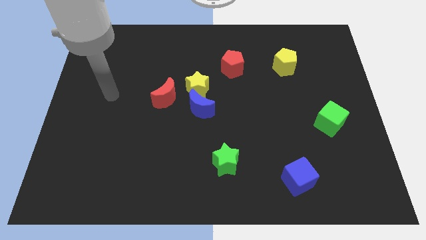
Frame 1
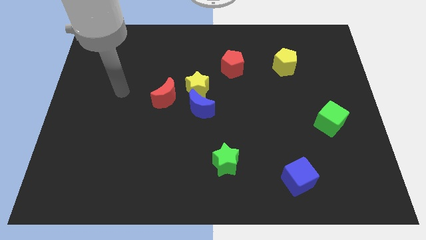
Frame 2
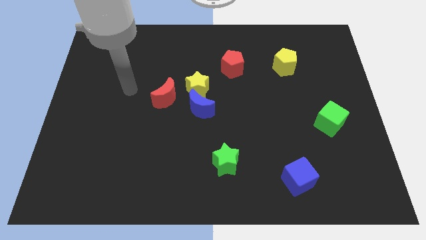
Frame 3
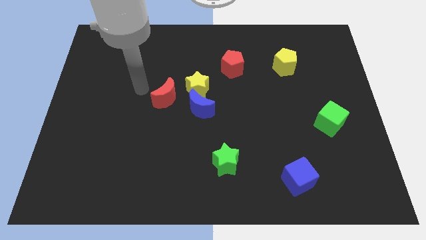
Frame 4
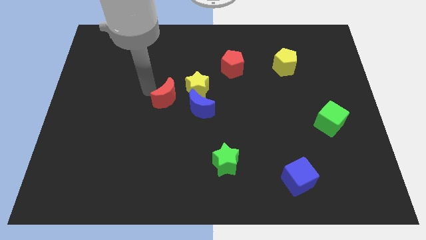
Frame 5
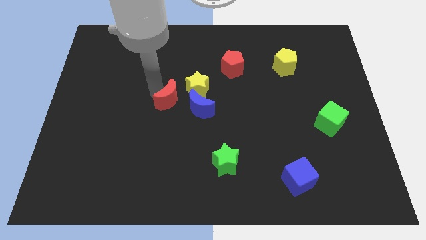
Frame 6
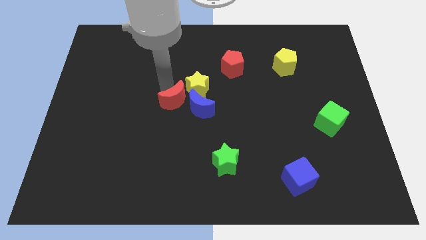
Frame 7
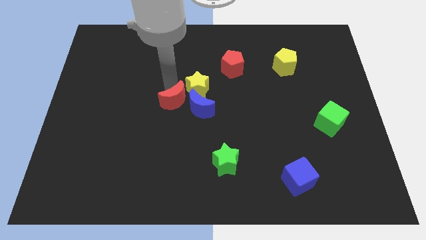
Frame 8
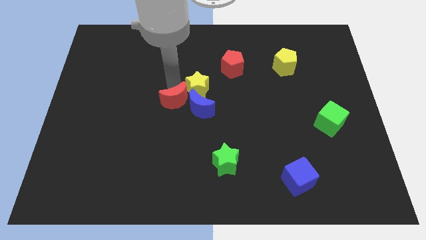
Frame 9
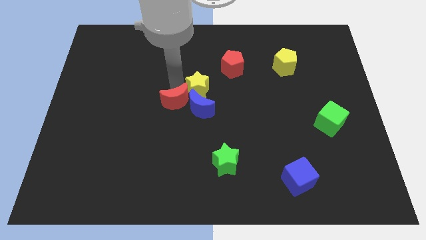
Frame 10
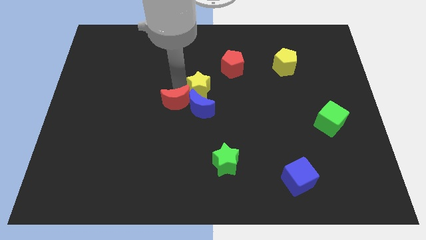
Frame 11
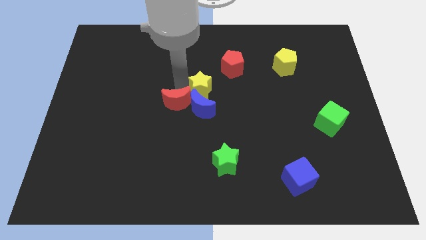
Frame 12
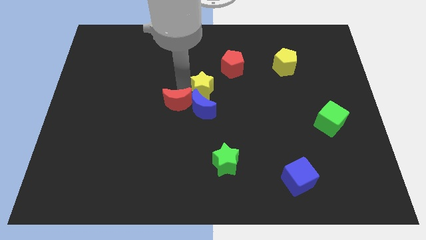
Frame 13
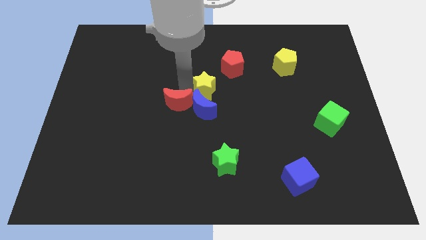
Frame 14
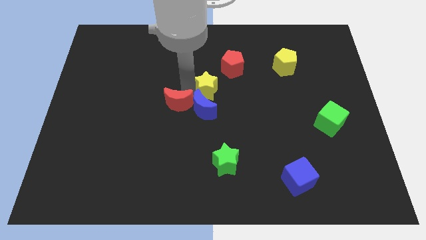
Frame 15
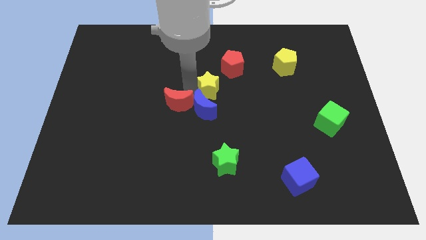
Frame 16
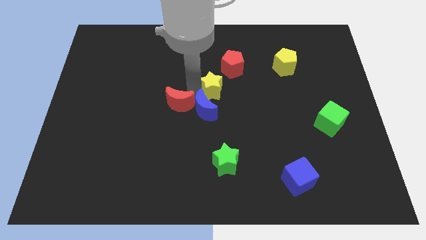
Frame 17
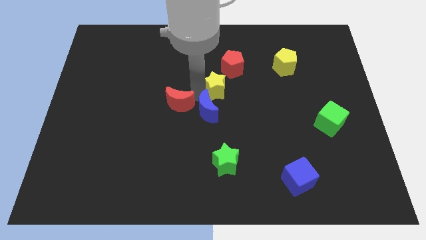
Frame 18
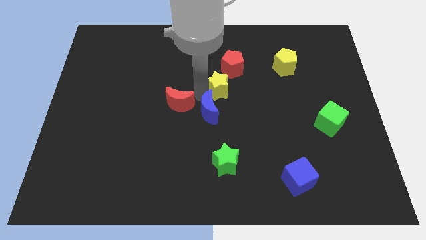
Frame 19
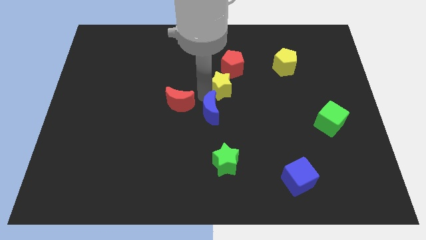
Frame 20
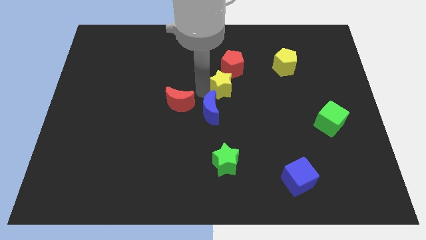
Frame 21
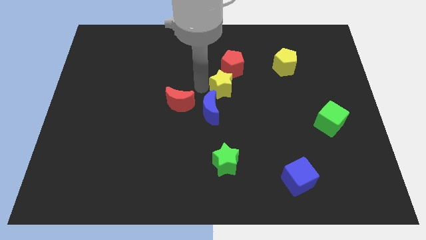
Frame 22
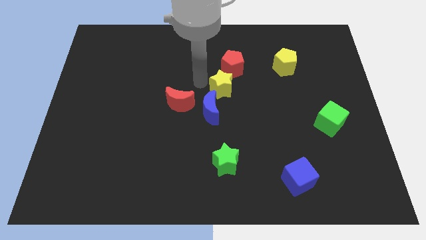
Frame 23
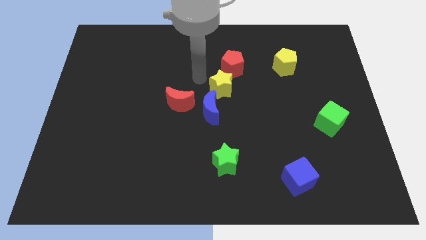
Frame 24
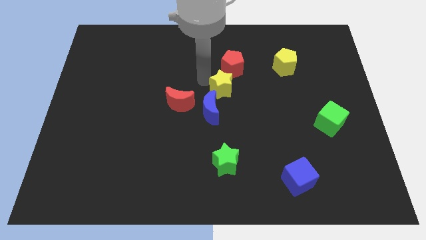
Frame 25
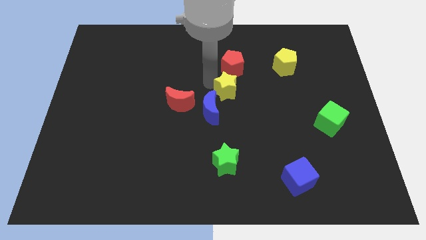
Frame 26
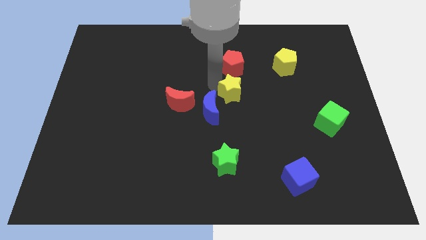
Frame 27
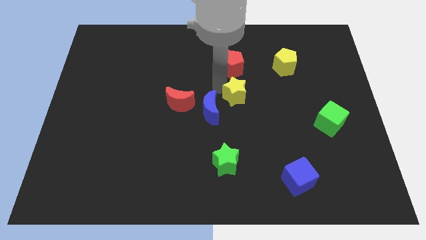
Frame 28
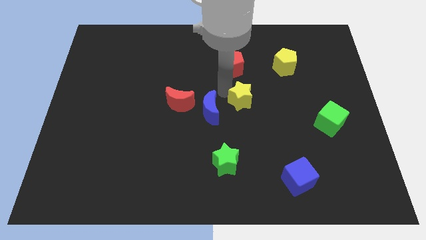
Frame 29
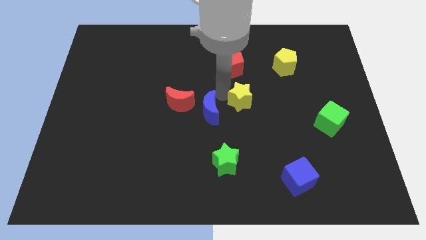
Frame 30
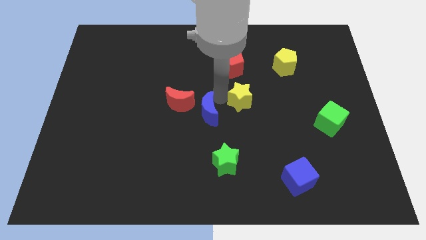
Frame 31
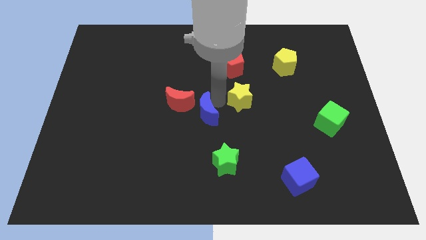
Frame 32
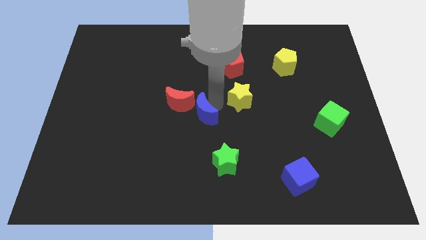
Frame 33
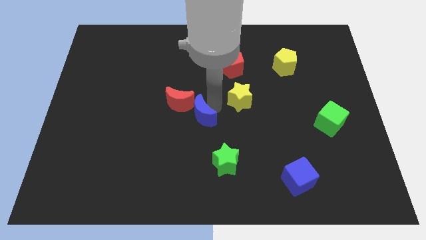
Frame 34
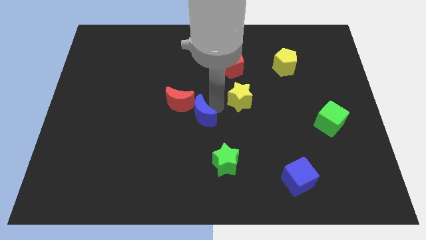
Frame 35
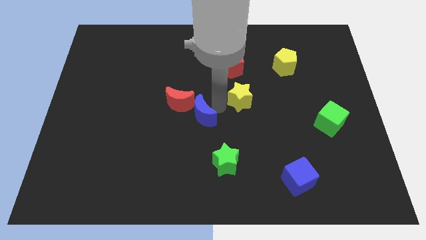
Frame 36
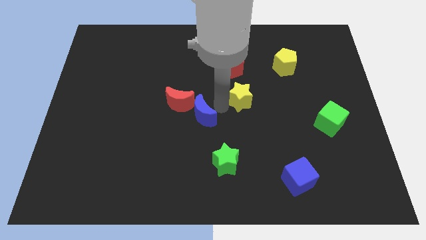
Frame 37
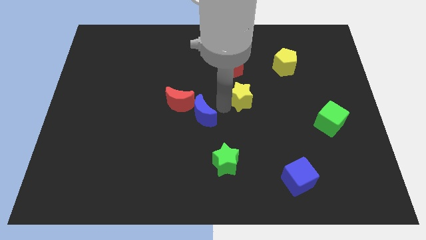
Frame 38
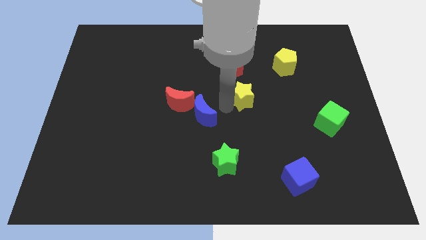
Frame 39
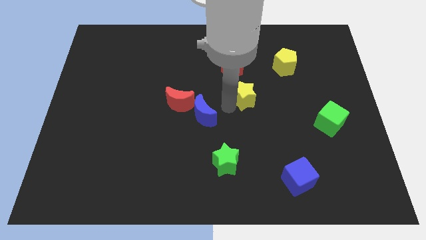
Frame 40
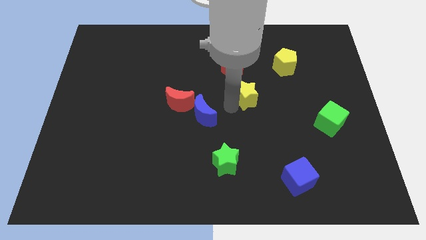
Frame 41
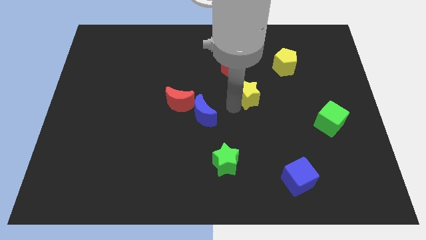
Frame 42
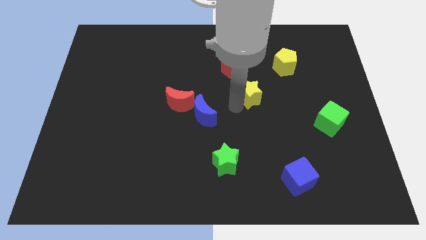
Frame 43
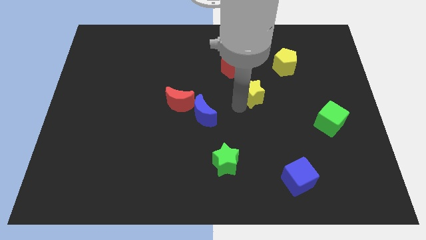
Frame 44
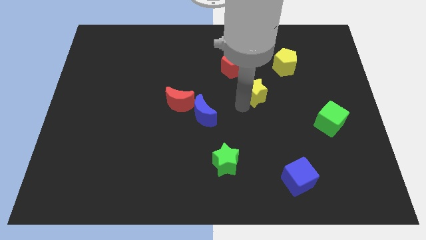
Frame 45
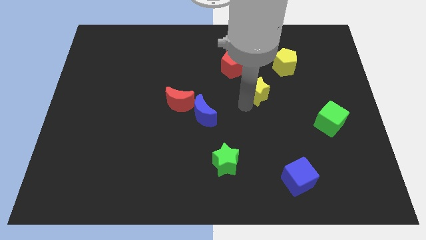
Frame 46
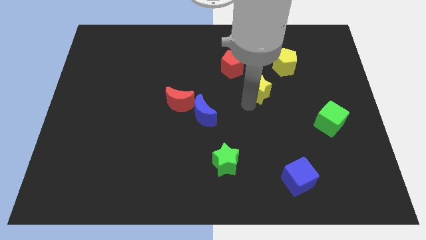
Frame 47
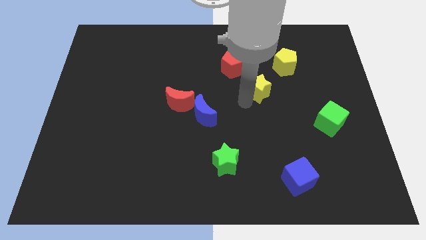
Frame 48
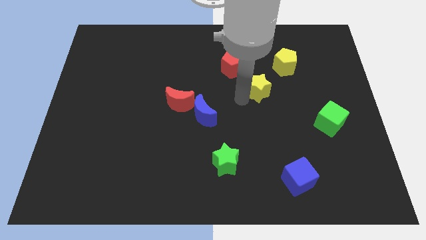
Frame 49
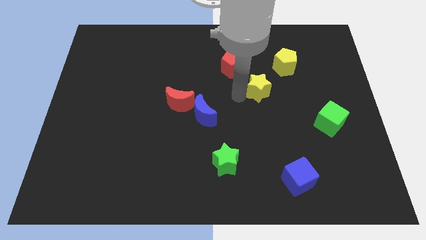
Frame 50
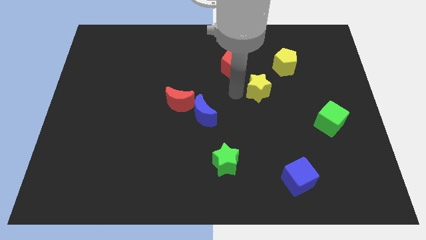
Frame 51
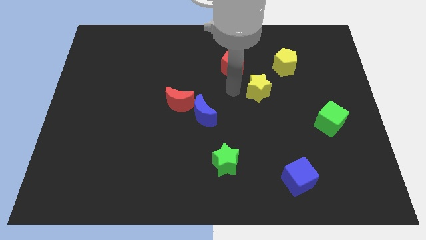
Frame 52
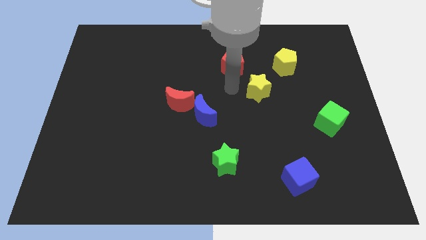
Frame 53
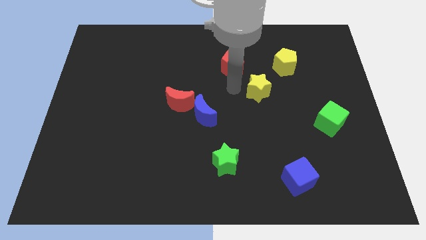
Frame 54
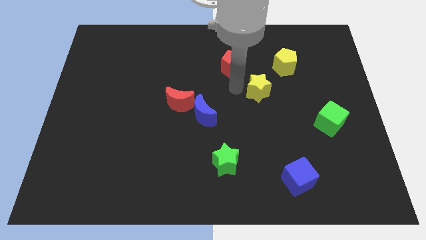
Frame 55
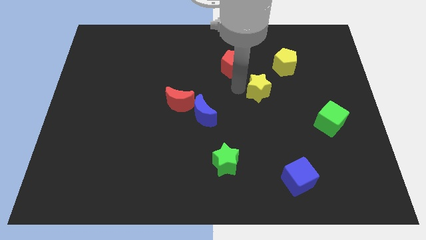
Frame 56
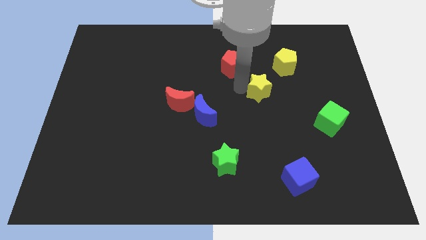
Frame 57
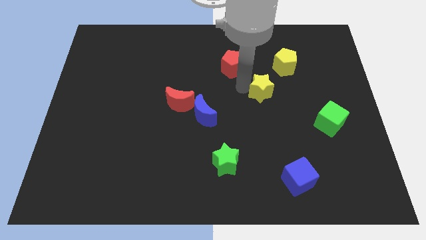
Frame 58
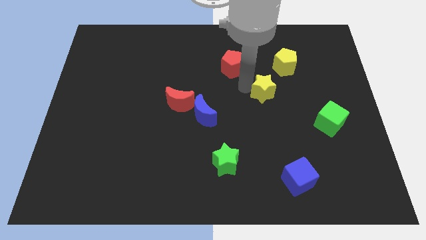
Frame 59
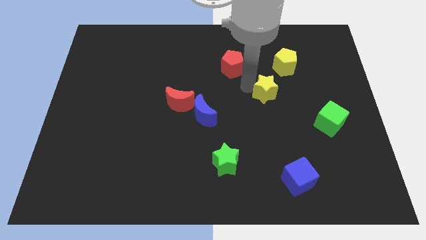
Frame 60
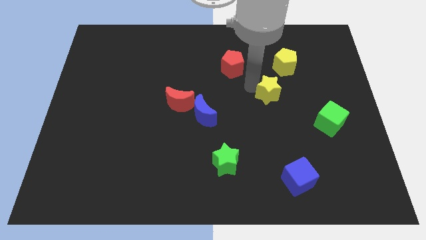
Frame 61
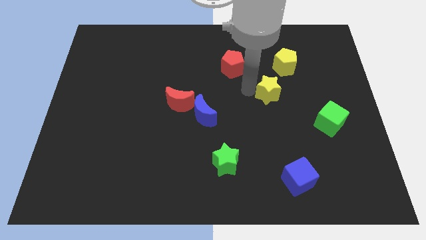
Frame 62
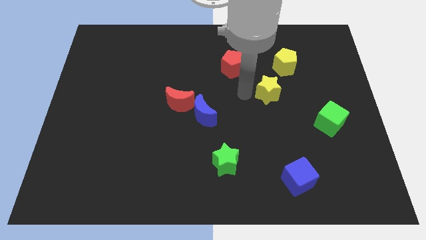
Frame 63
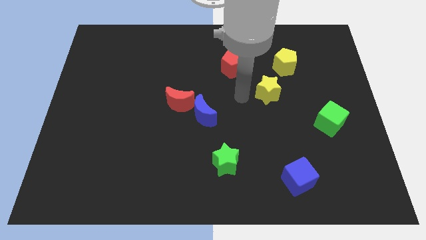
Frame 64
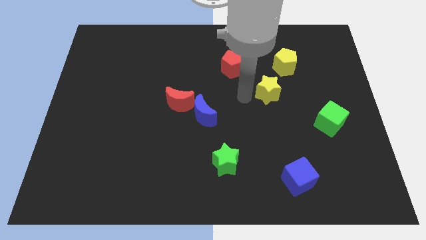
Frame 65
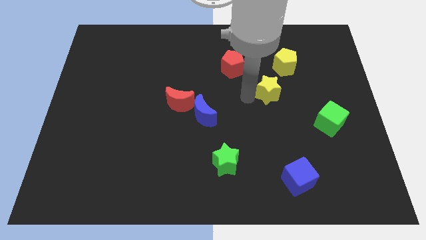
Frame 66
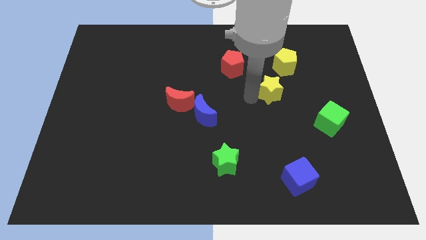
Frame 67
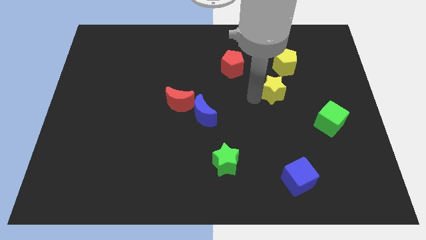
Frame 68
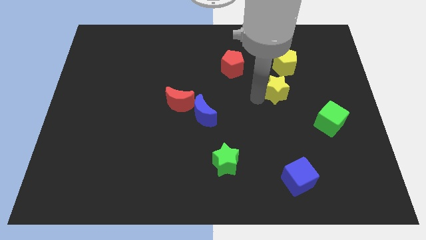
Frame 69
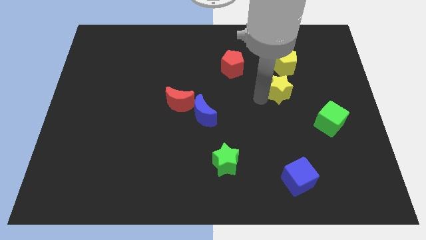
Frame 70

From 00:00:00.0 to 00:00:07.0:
move the yellow star to the right

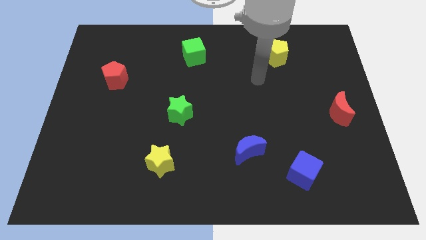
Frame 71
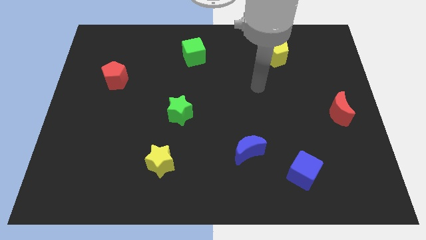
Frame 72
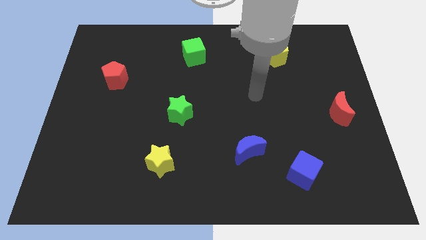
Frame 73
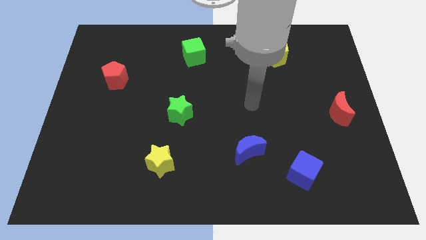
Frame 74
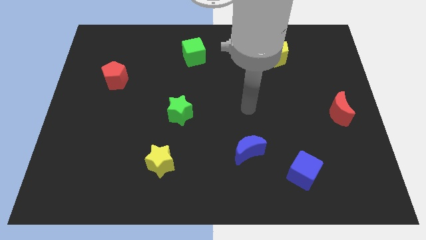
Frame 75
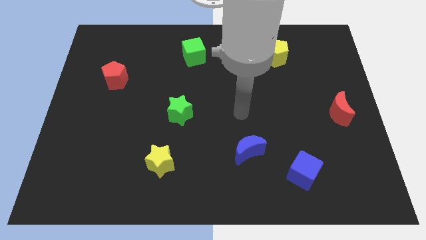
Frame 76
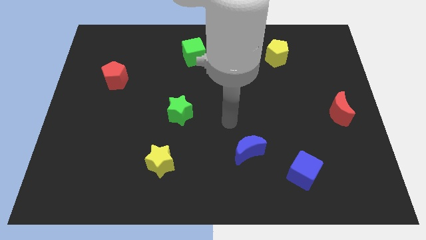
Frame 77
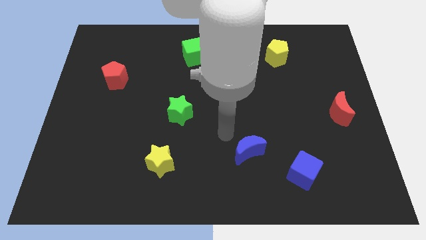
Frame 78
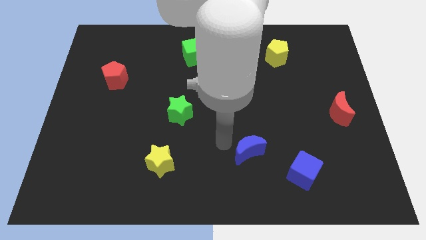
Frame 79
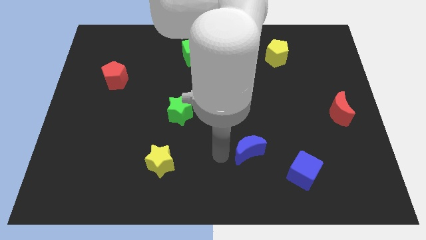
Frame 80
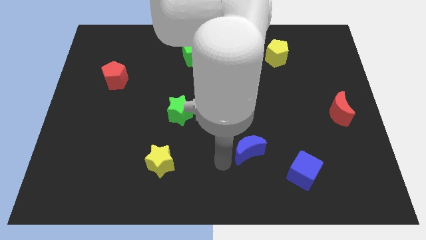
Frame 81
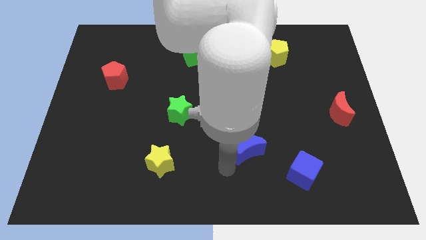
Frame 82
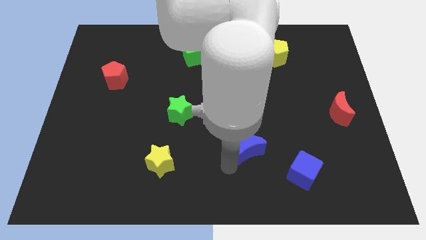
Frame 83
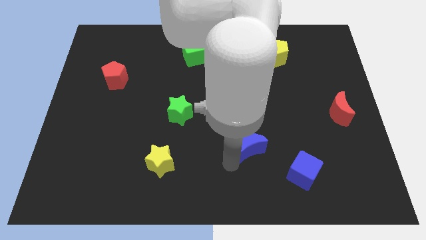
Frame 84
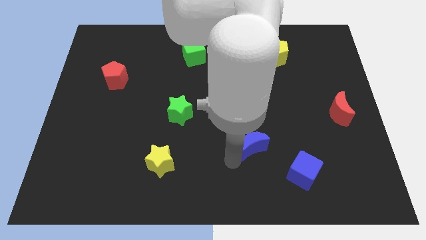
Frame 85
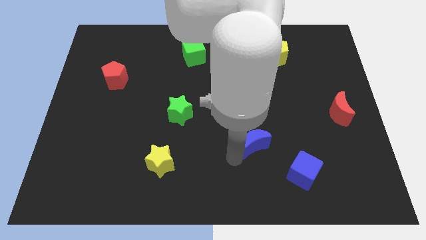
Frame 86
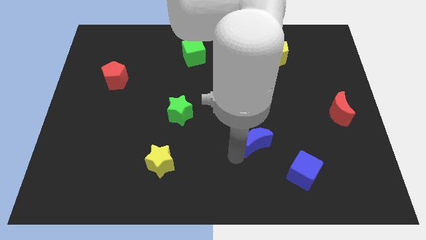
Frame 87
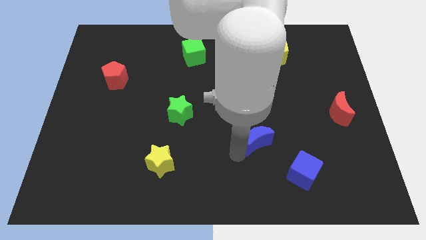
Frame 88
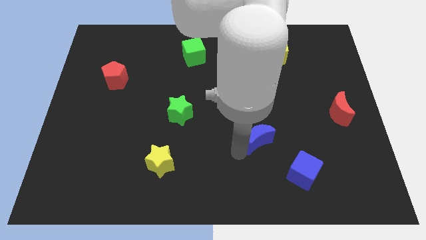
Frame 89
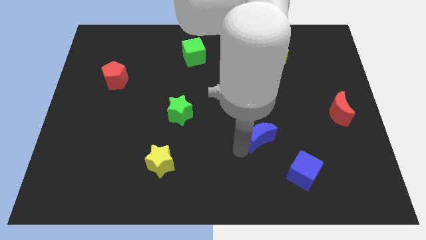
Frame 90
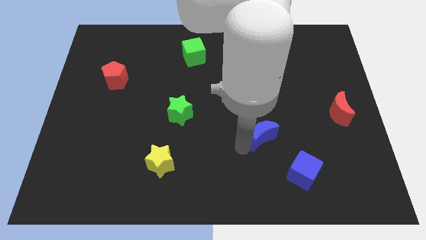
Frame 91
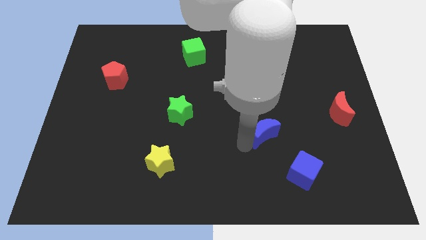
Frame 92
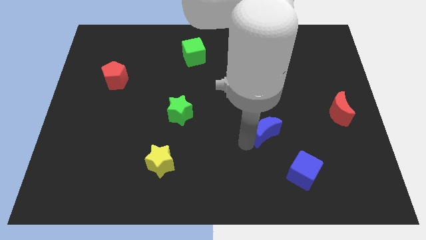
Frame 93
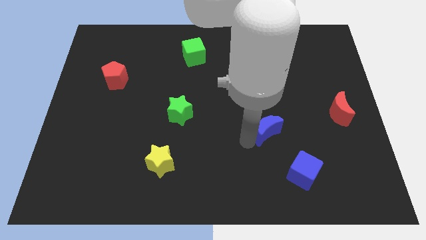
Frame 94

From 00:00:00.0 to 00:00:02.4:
slightly move the blue moon upwards and to the right
